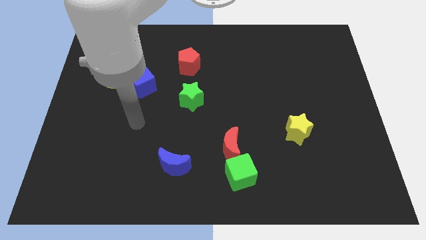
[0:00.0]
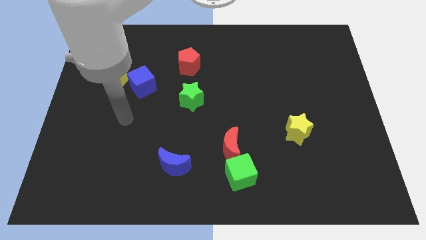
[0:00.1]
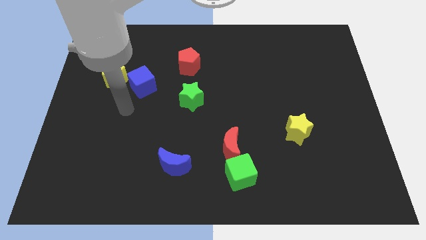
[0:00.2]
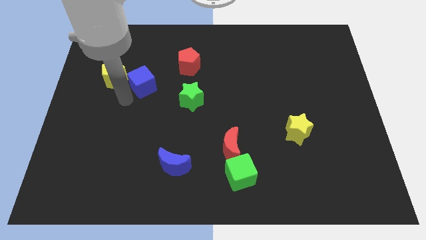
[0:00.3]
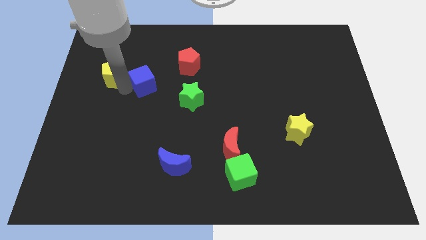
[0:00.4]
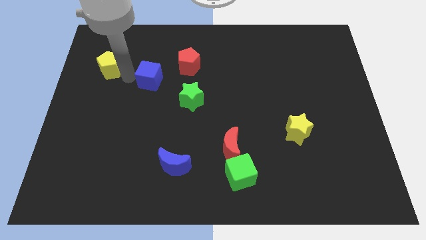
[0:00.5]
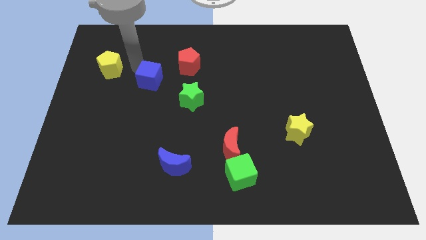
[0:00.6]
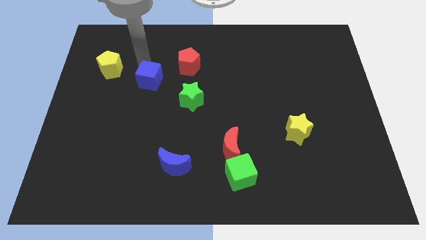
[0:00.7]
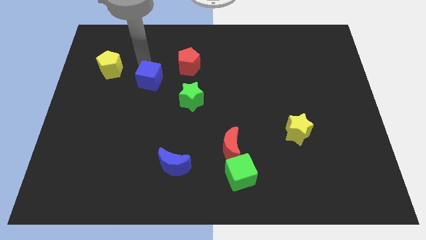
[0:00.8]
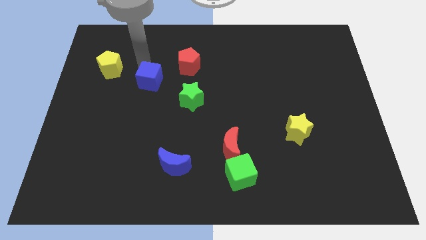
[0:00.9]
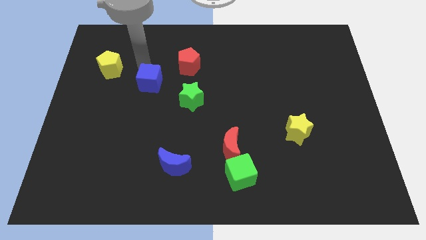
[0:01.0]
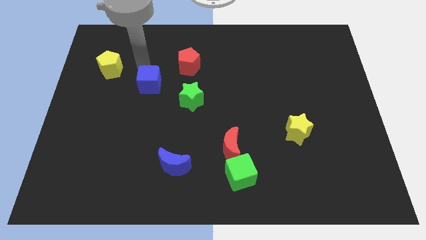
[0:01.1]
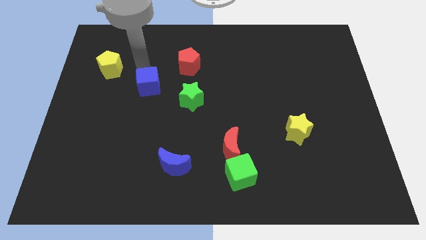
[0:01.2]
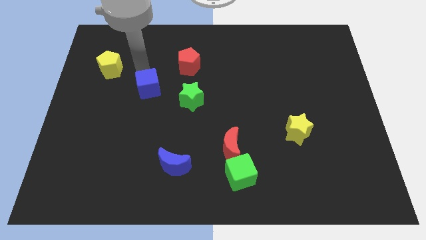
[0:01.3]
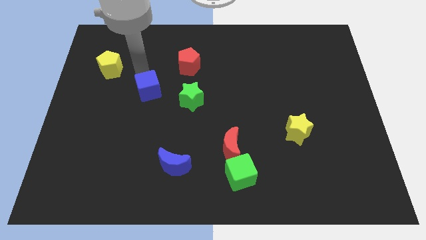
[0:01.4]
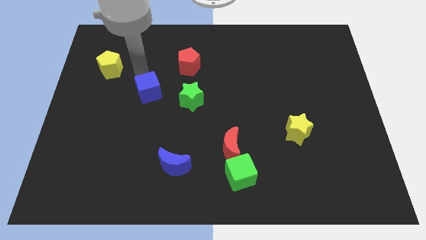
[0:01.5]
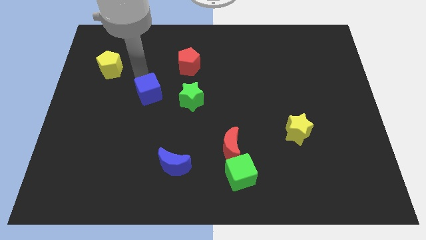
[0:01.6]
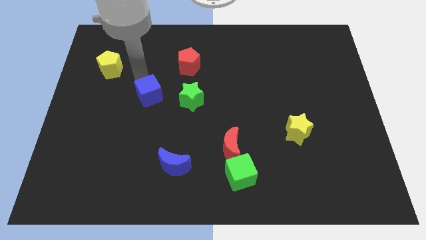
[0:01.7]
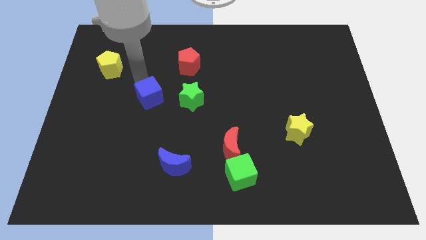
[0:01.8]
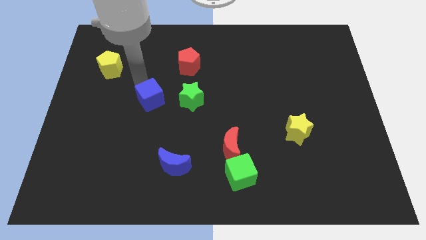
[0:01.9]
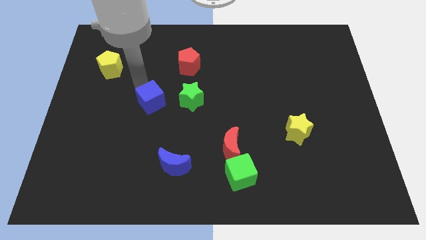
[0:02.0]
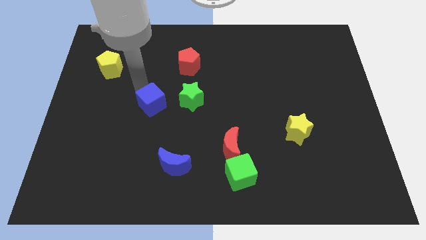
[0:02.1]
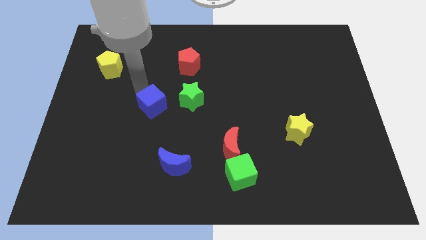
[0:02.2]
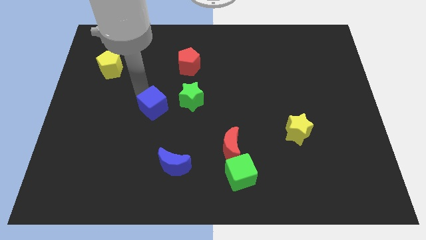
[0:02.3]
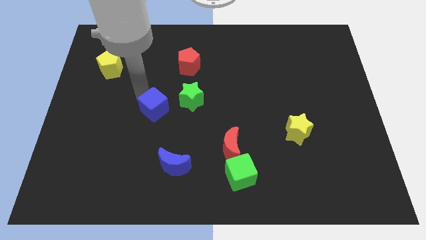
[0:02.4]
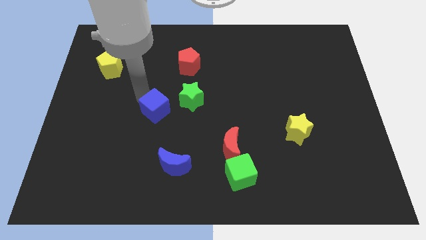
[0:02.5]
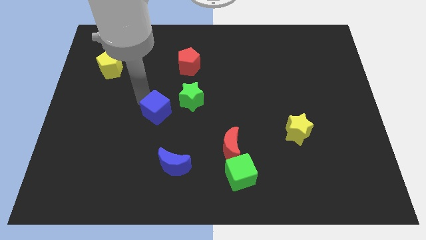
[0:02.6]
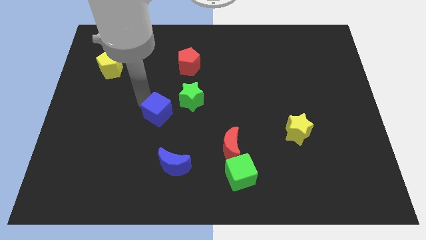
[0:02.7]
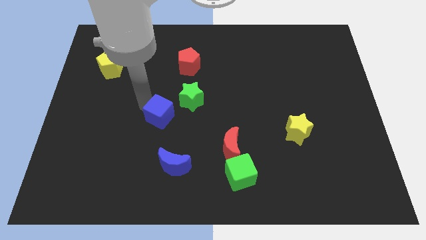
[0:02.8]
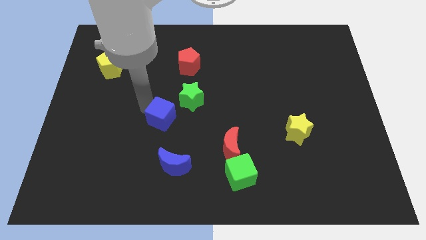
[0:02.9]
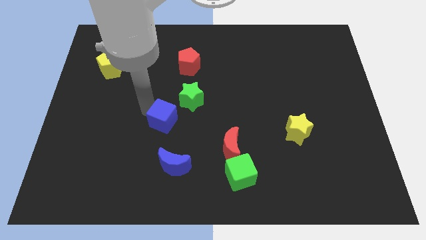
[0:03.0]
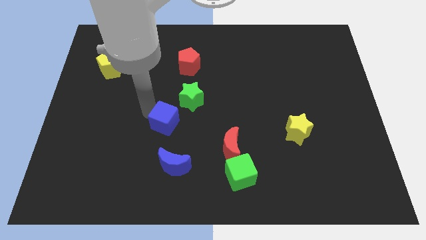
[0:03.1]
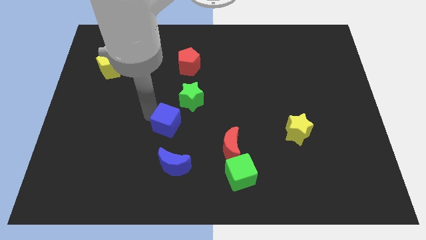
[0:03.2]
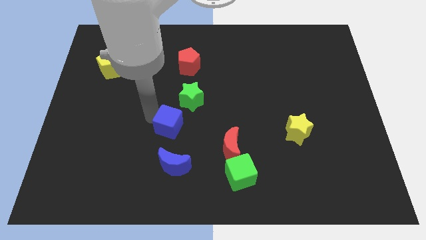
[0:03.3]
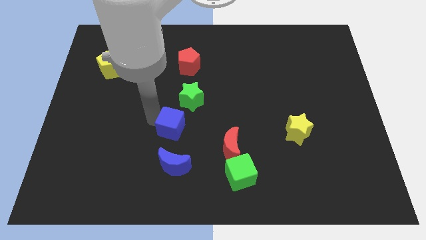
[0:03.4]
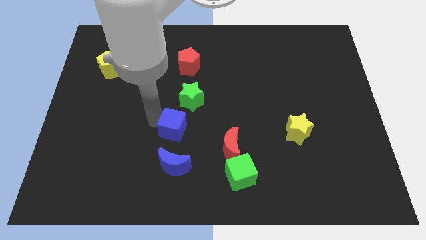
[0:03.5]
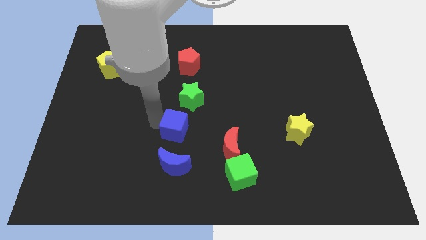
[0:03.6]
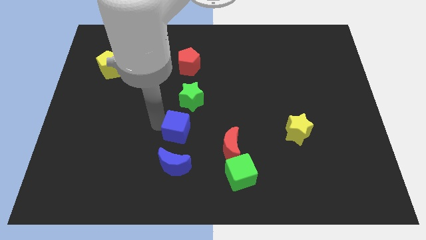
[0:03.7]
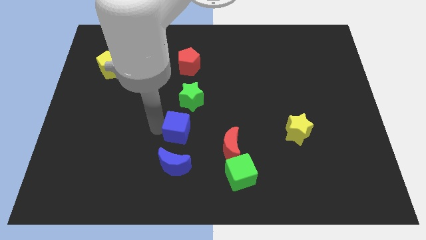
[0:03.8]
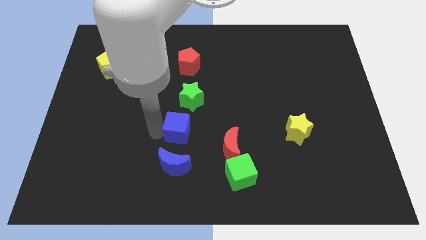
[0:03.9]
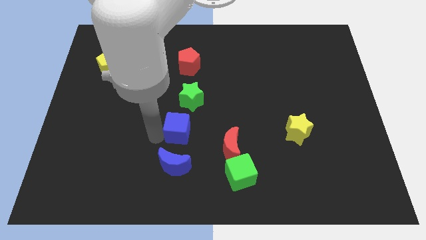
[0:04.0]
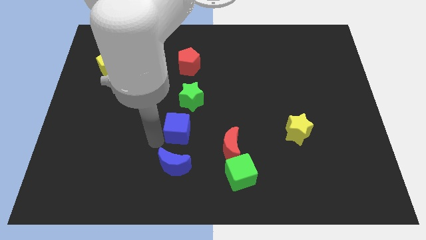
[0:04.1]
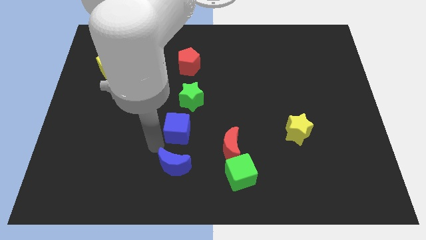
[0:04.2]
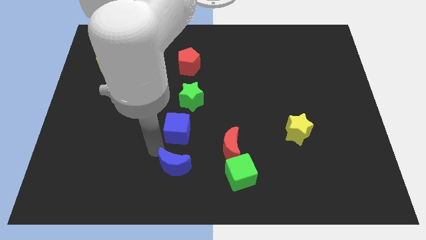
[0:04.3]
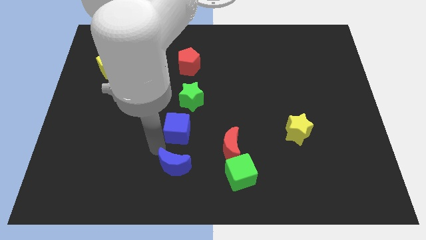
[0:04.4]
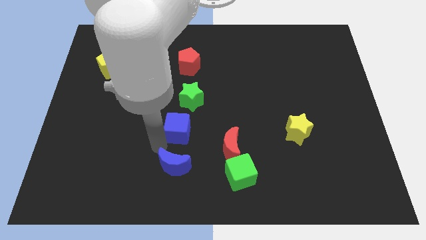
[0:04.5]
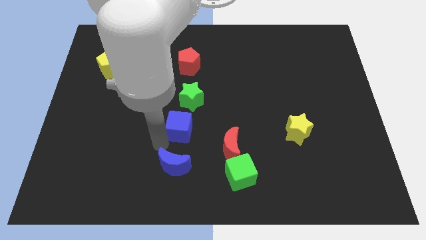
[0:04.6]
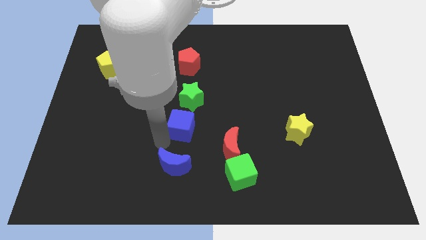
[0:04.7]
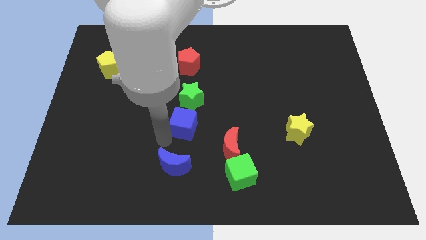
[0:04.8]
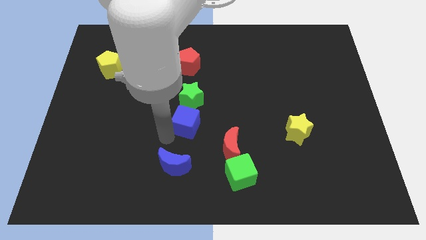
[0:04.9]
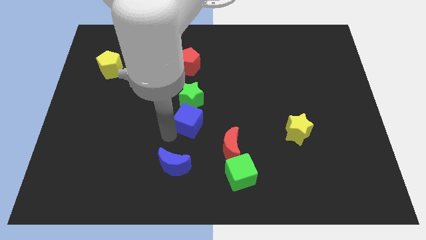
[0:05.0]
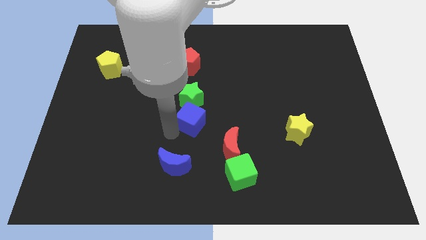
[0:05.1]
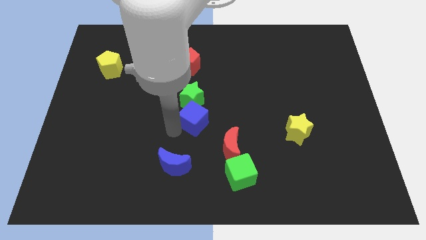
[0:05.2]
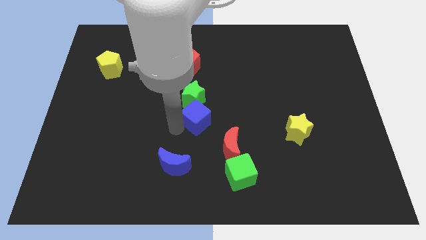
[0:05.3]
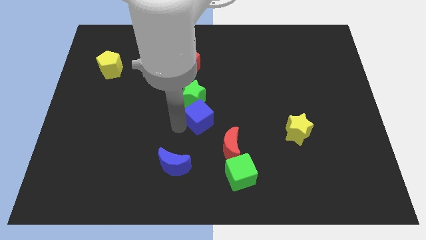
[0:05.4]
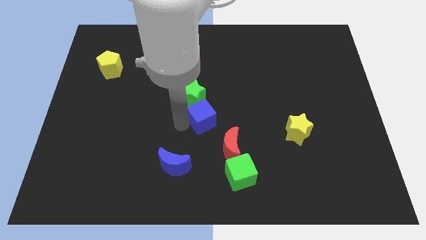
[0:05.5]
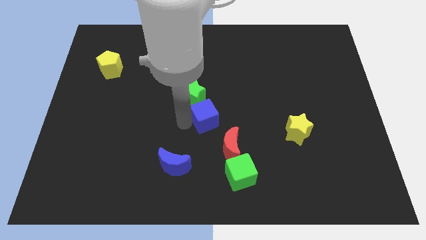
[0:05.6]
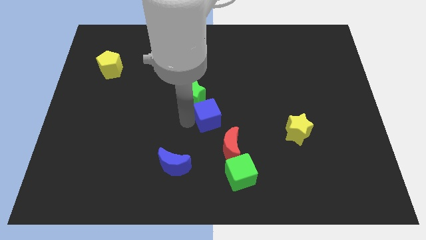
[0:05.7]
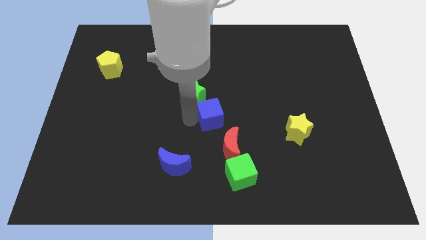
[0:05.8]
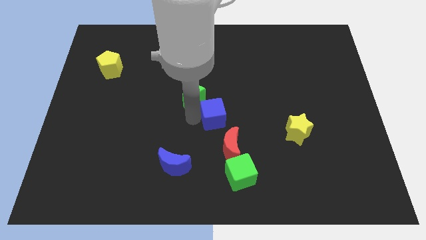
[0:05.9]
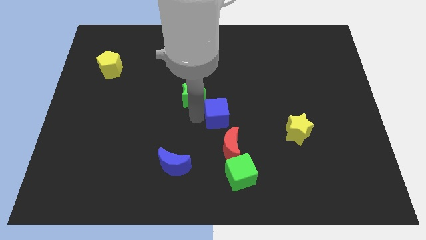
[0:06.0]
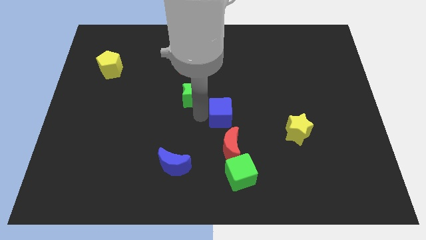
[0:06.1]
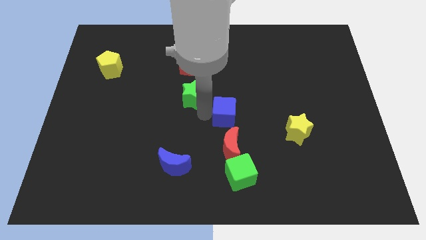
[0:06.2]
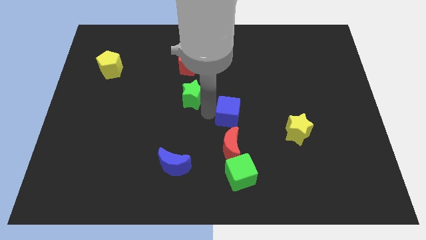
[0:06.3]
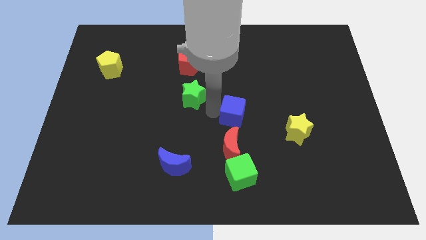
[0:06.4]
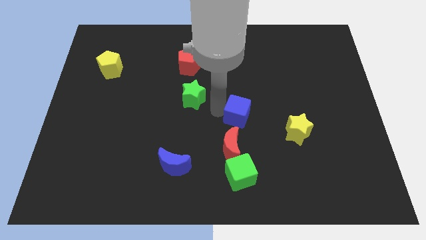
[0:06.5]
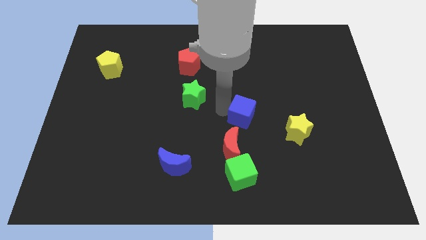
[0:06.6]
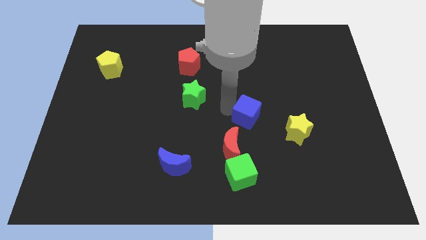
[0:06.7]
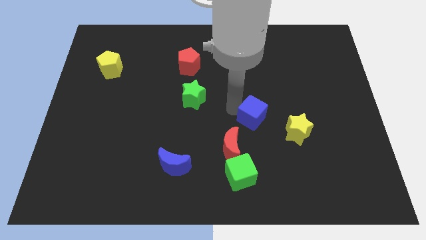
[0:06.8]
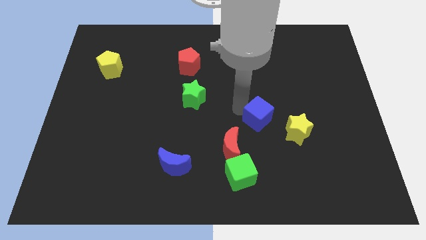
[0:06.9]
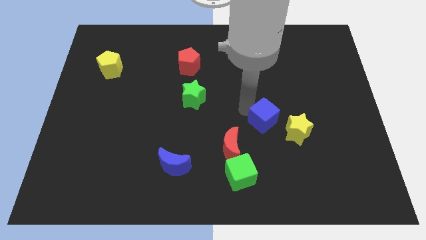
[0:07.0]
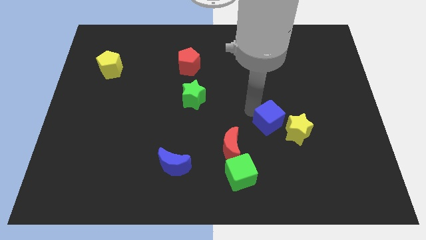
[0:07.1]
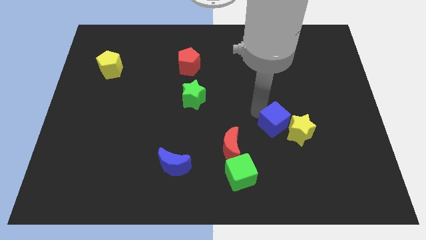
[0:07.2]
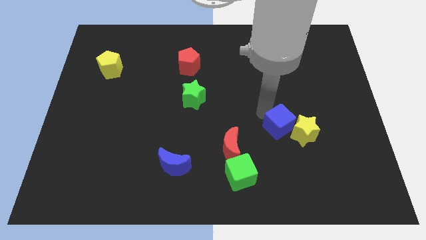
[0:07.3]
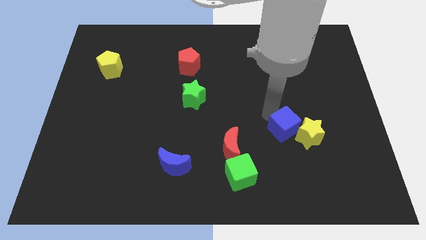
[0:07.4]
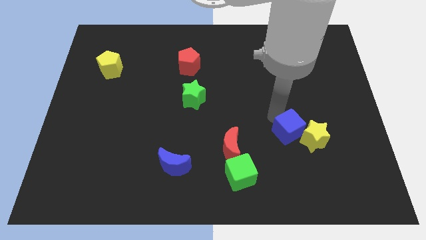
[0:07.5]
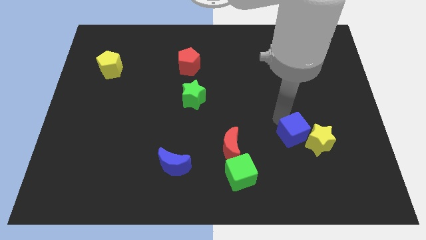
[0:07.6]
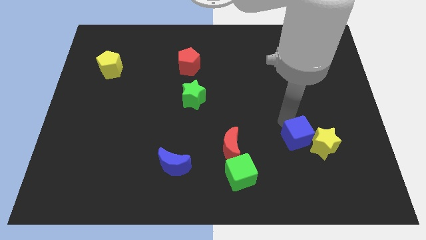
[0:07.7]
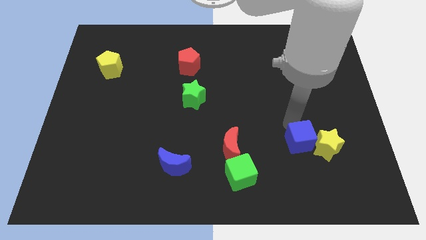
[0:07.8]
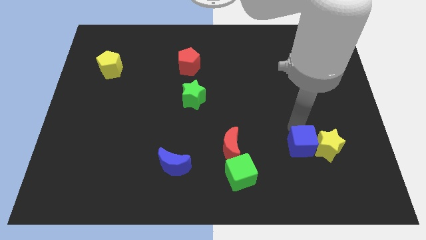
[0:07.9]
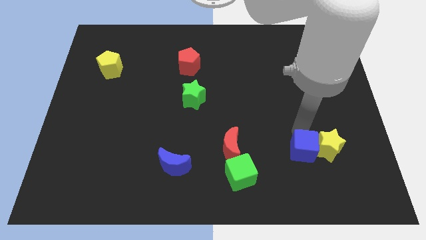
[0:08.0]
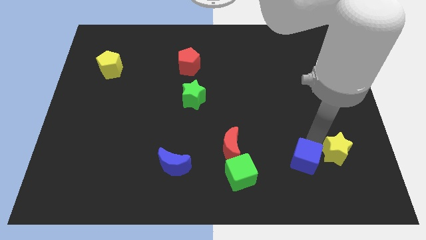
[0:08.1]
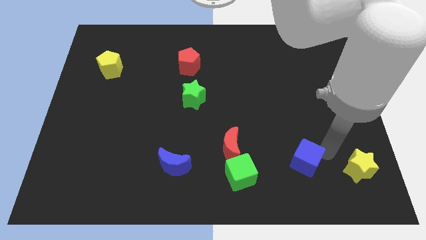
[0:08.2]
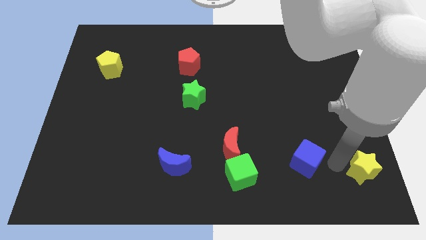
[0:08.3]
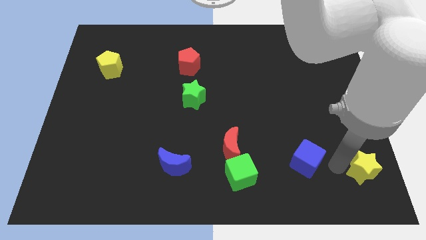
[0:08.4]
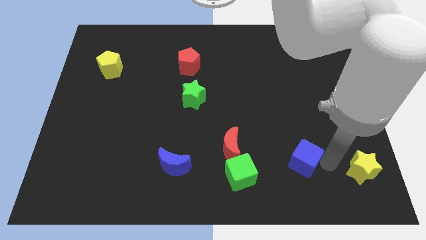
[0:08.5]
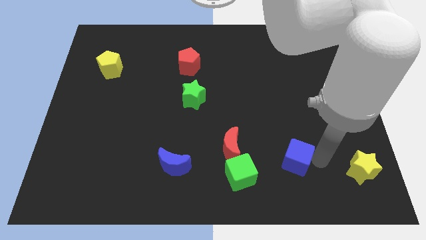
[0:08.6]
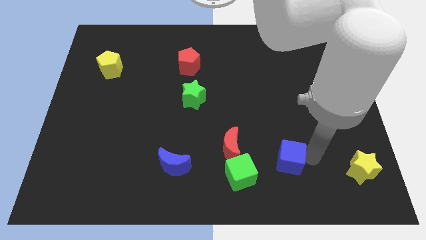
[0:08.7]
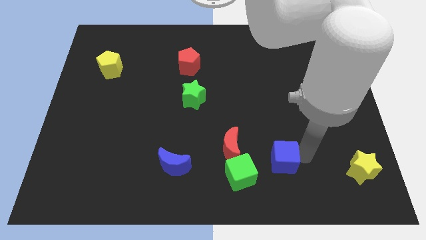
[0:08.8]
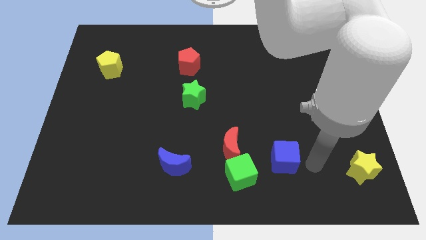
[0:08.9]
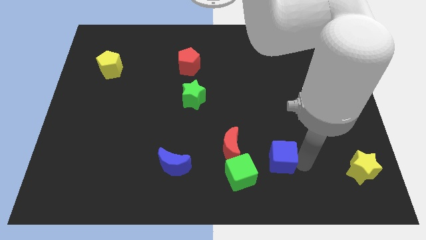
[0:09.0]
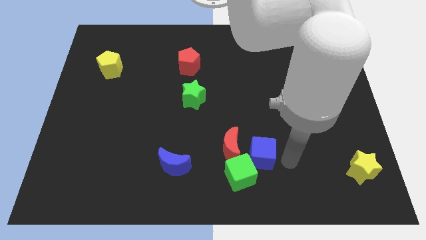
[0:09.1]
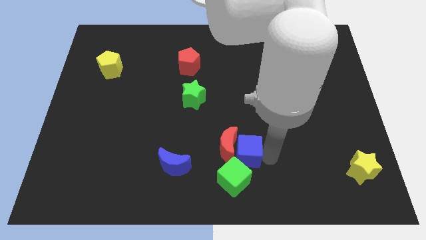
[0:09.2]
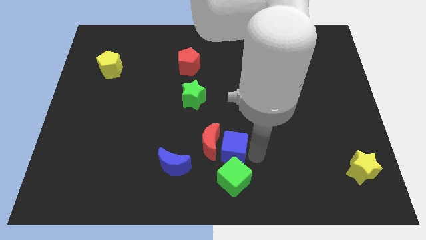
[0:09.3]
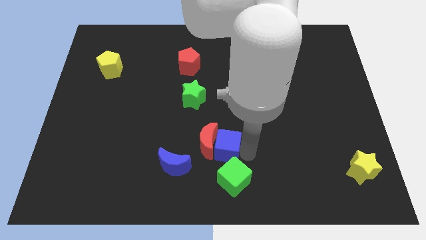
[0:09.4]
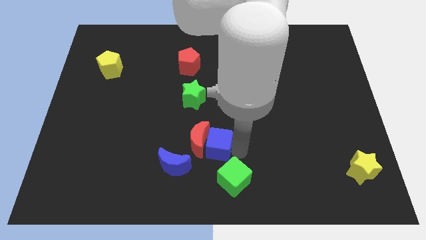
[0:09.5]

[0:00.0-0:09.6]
slide the blue cube to the top right side of the blue moon
